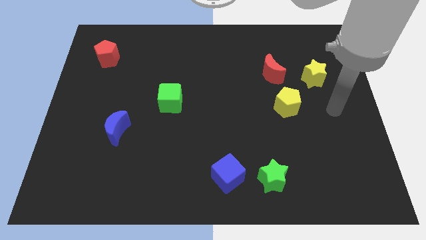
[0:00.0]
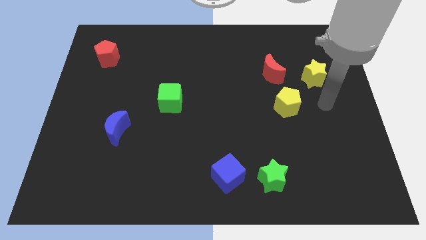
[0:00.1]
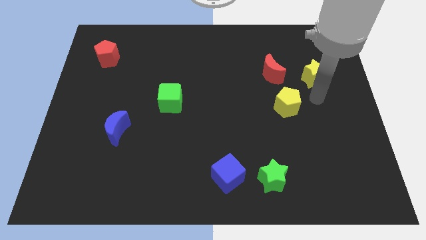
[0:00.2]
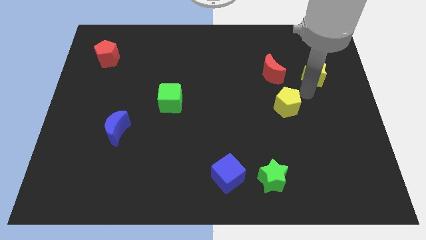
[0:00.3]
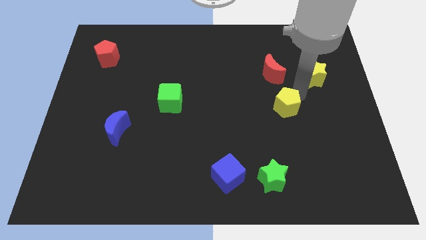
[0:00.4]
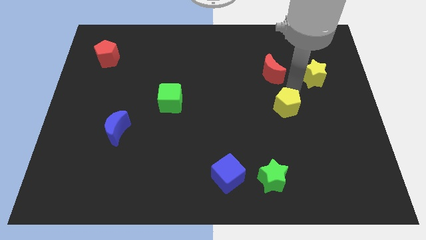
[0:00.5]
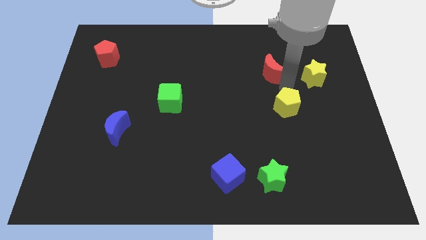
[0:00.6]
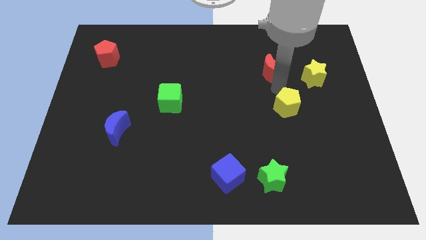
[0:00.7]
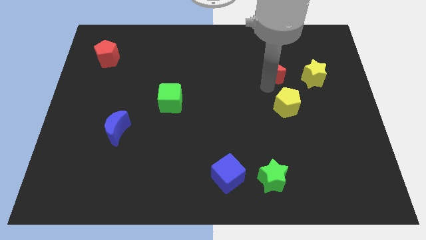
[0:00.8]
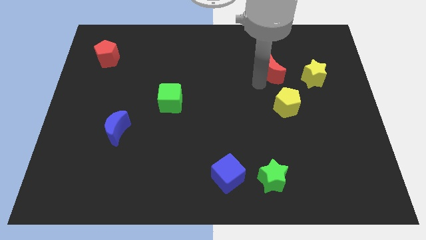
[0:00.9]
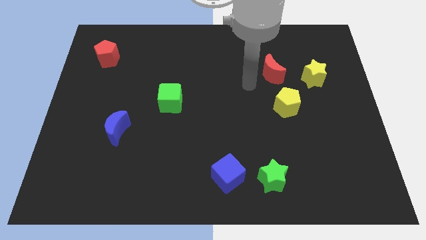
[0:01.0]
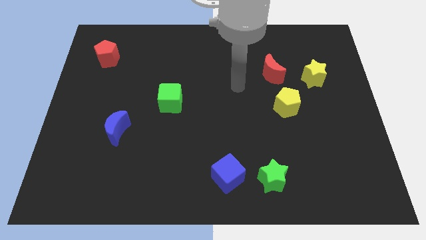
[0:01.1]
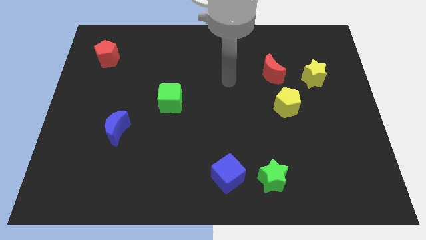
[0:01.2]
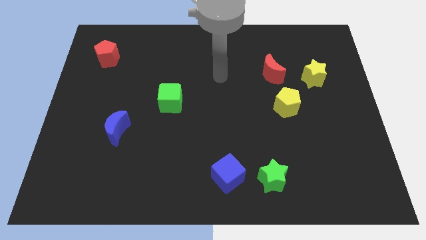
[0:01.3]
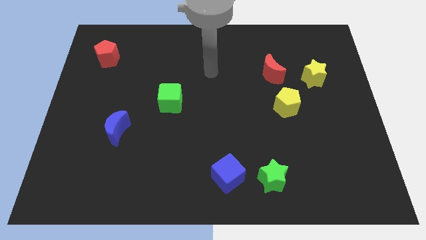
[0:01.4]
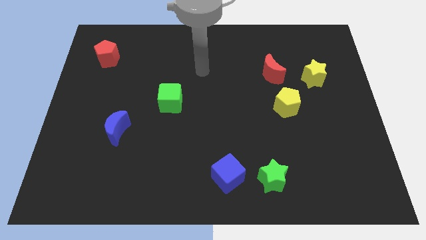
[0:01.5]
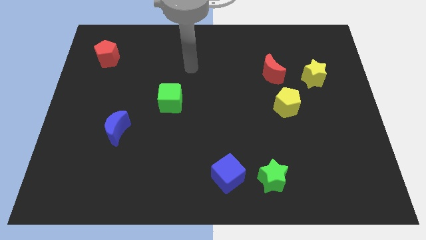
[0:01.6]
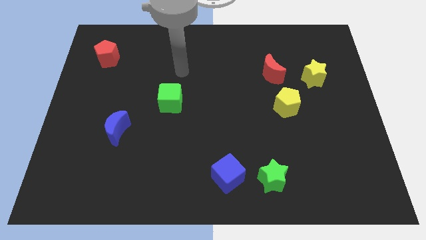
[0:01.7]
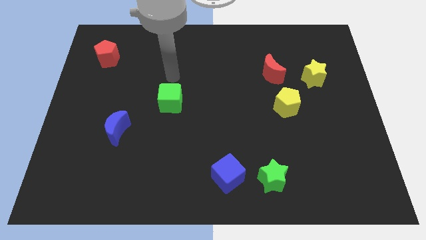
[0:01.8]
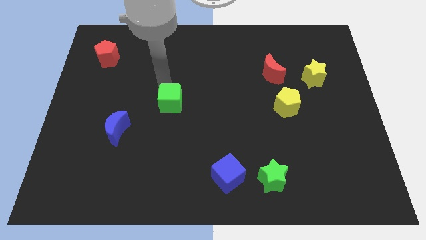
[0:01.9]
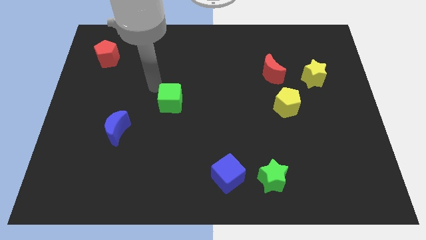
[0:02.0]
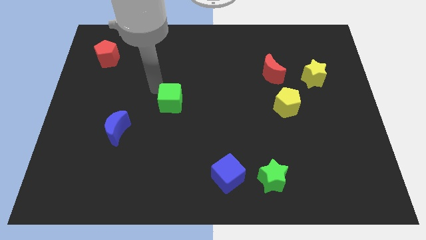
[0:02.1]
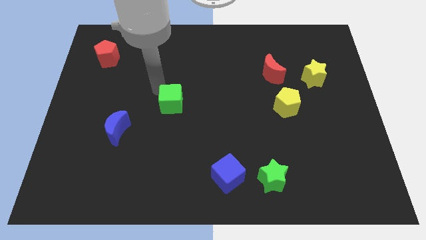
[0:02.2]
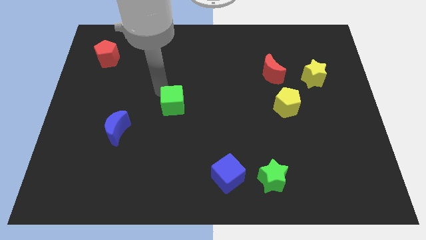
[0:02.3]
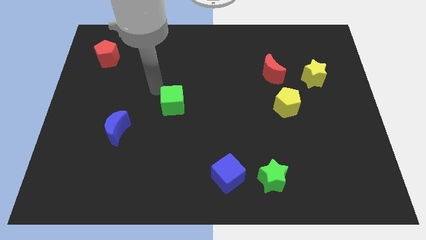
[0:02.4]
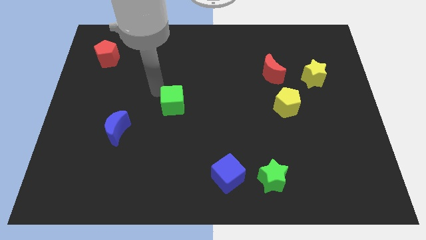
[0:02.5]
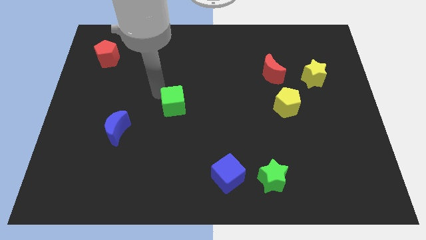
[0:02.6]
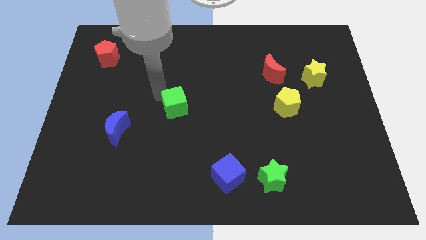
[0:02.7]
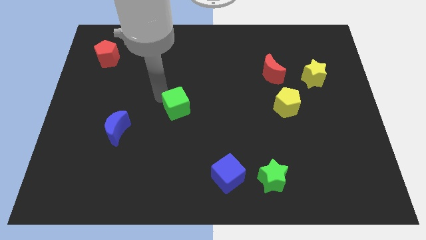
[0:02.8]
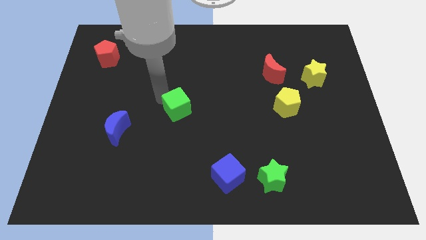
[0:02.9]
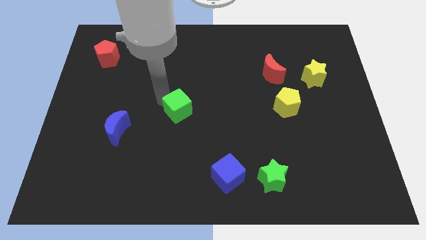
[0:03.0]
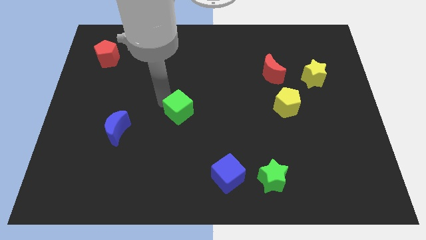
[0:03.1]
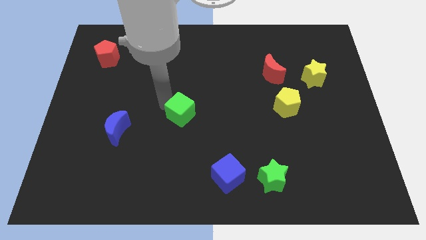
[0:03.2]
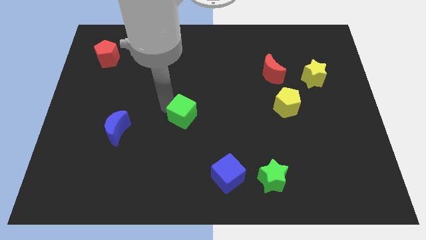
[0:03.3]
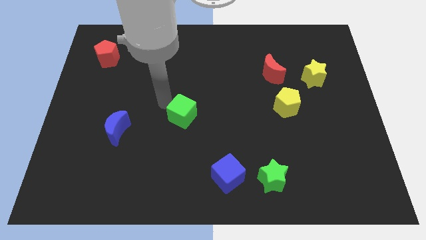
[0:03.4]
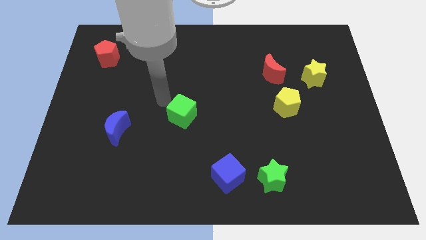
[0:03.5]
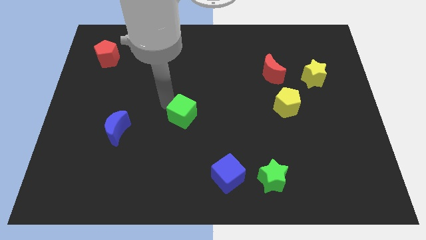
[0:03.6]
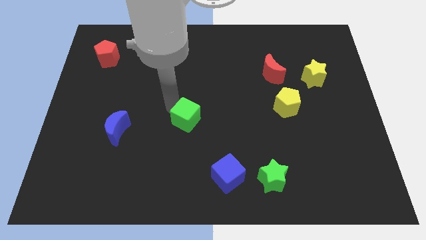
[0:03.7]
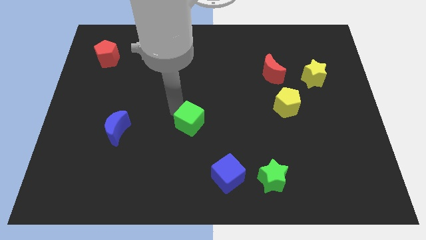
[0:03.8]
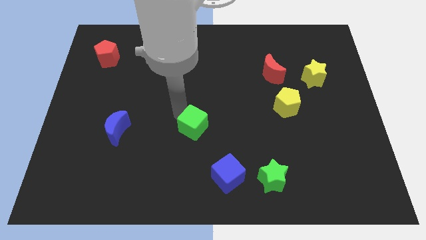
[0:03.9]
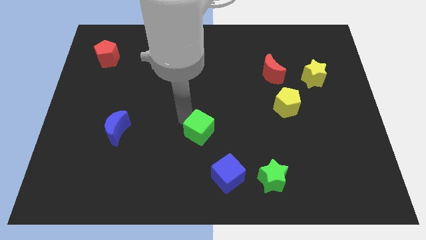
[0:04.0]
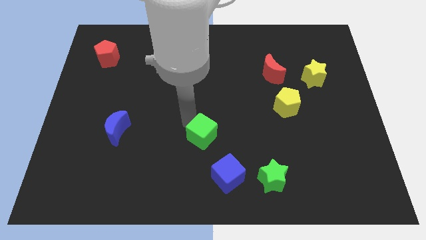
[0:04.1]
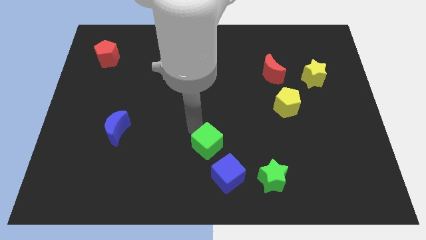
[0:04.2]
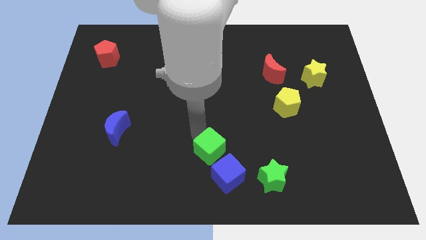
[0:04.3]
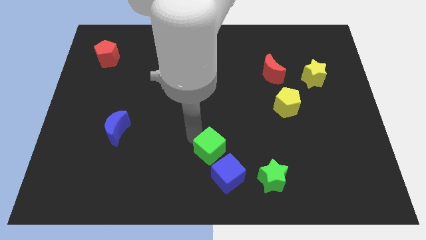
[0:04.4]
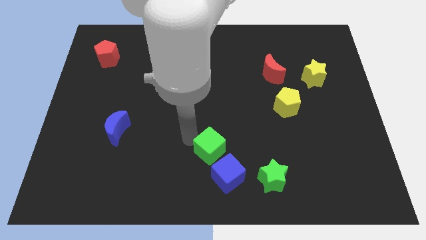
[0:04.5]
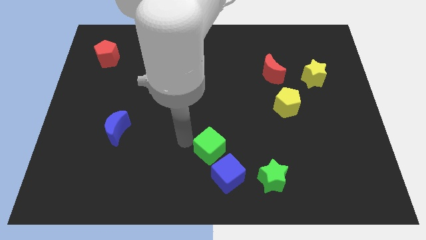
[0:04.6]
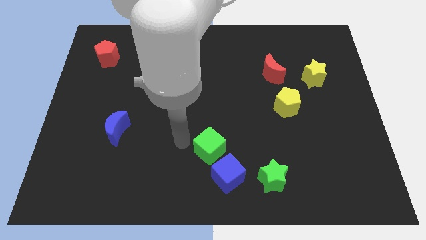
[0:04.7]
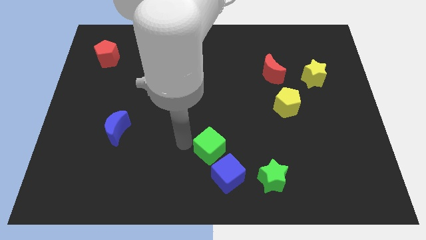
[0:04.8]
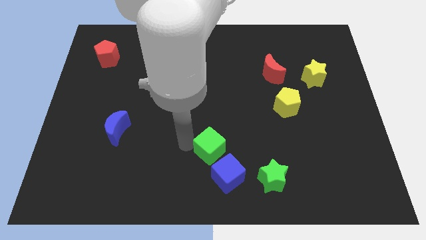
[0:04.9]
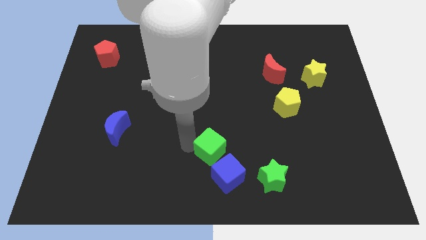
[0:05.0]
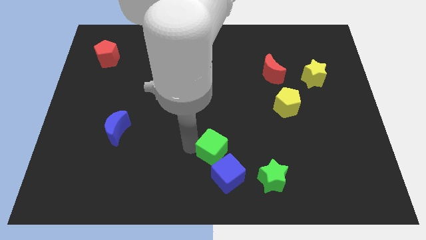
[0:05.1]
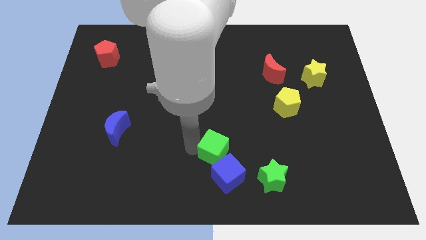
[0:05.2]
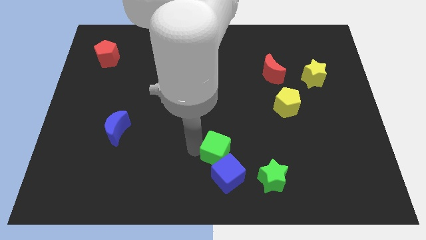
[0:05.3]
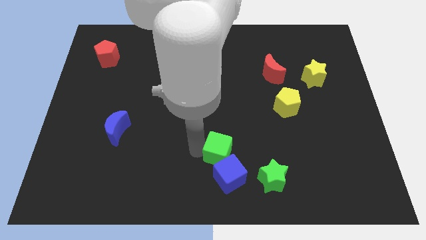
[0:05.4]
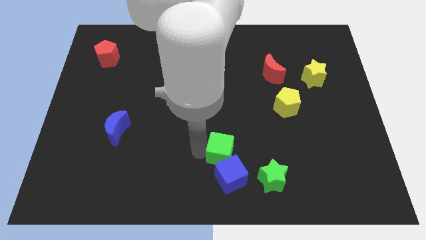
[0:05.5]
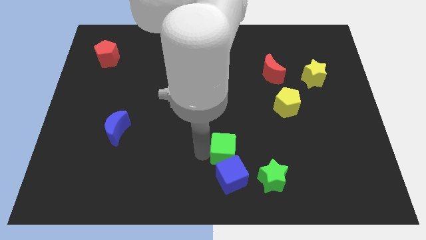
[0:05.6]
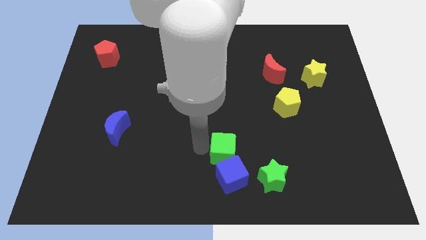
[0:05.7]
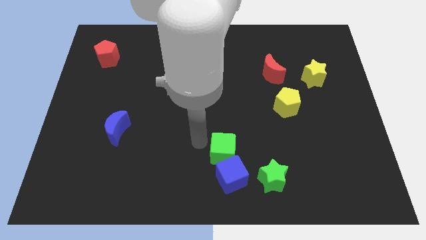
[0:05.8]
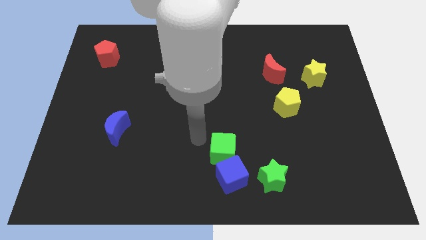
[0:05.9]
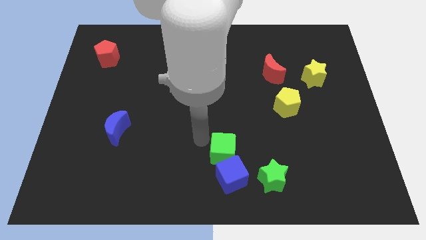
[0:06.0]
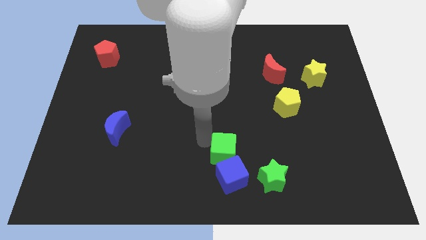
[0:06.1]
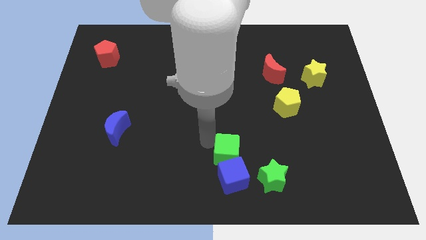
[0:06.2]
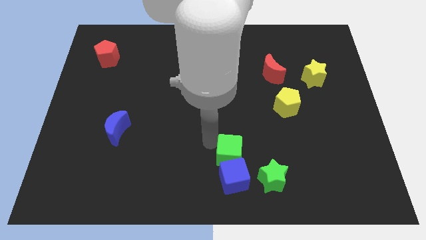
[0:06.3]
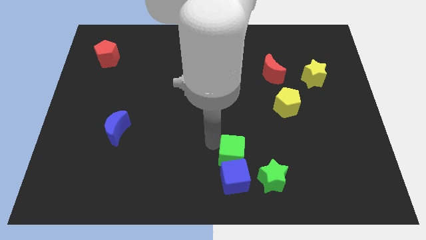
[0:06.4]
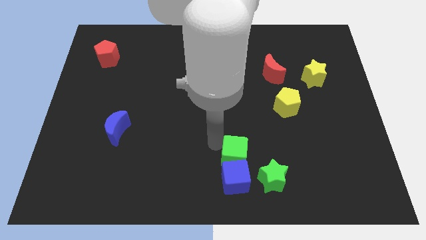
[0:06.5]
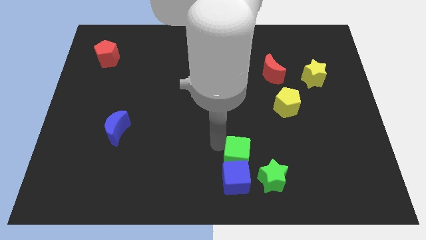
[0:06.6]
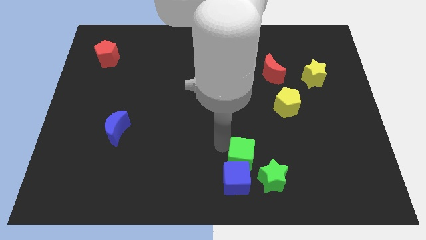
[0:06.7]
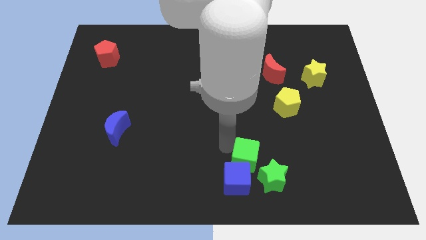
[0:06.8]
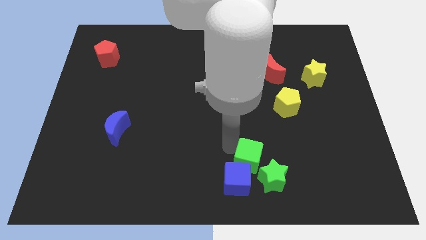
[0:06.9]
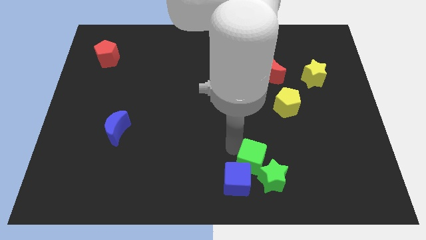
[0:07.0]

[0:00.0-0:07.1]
move the green cube close to the green star

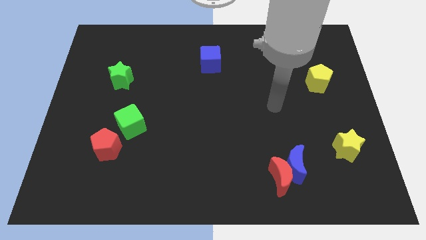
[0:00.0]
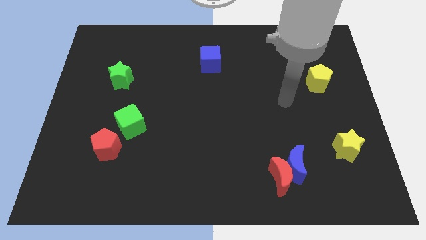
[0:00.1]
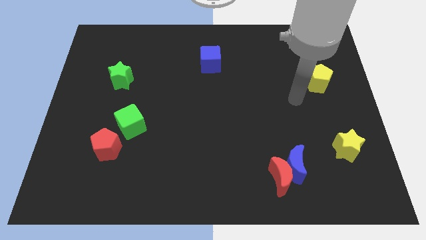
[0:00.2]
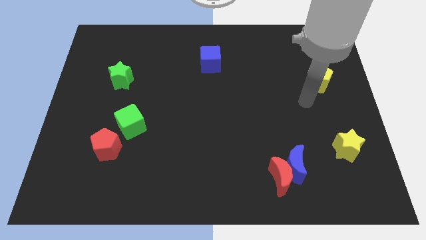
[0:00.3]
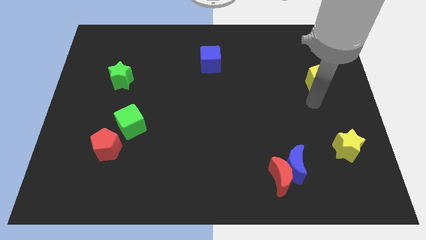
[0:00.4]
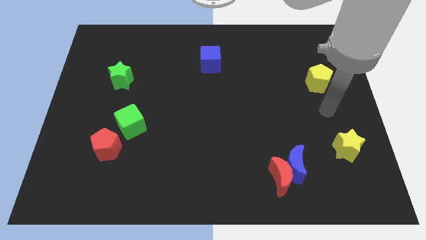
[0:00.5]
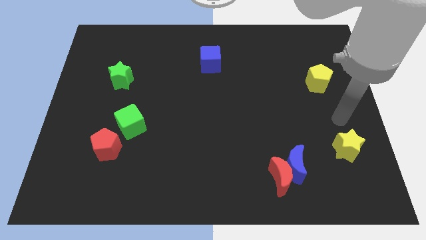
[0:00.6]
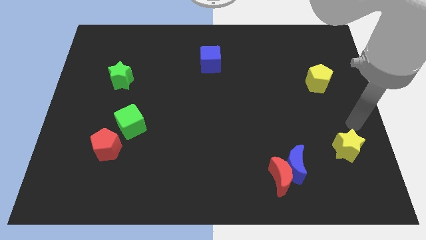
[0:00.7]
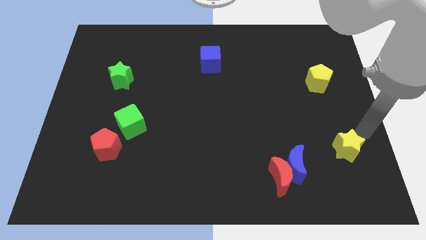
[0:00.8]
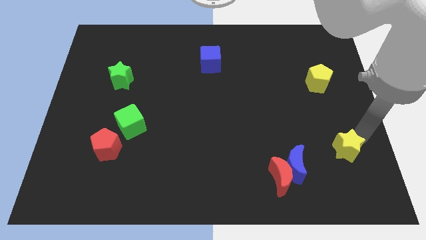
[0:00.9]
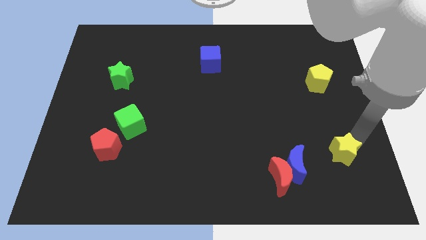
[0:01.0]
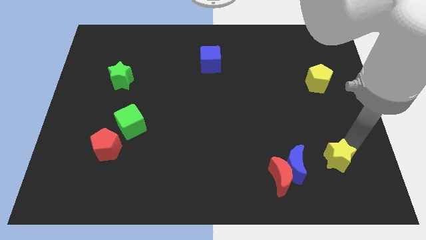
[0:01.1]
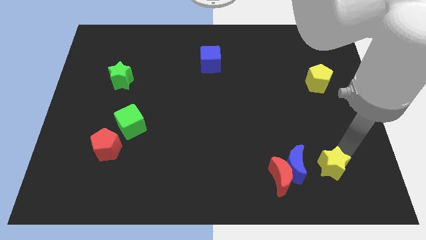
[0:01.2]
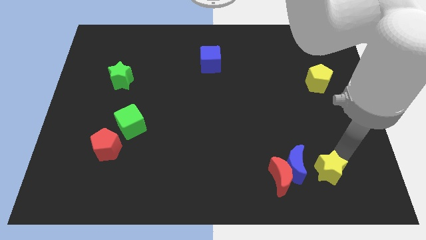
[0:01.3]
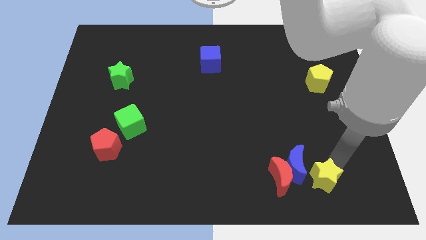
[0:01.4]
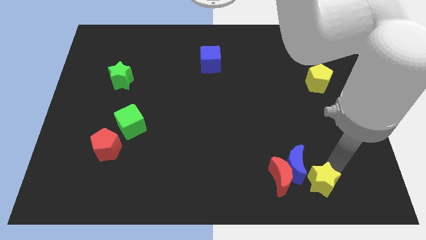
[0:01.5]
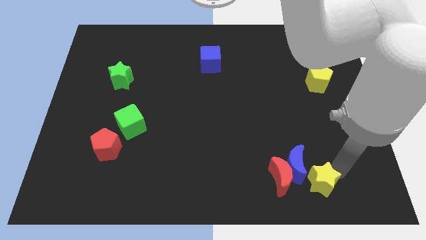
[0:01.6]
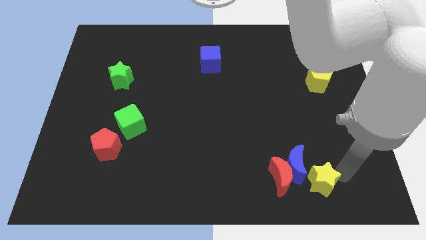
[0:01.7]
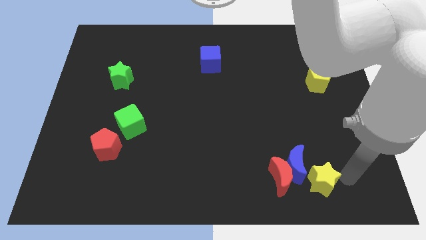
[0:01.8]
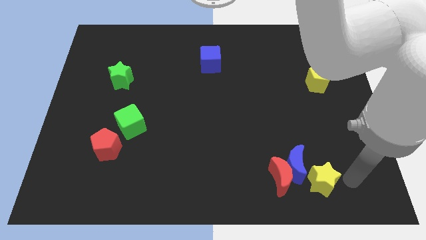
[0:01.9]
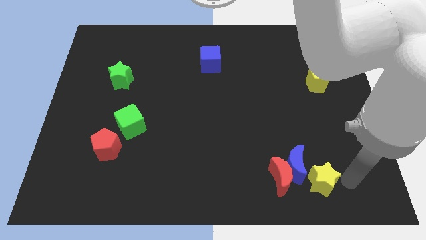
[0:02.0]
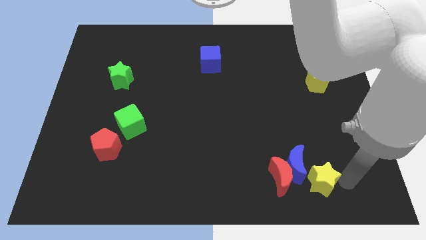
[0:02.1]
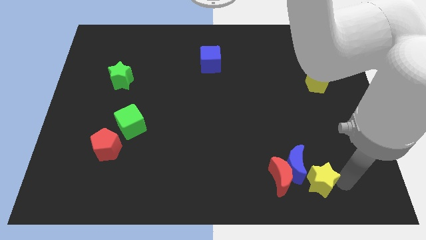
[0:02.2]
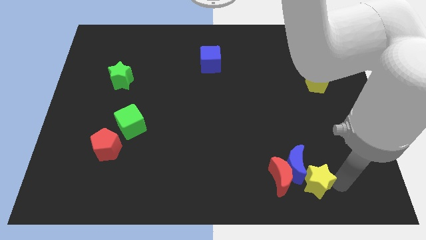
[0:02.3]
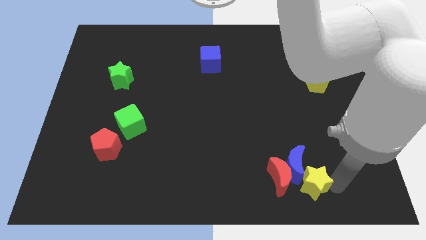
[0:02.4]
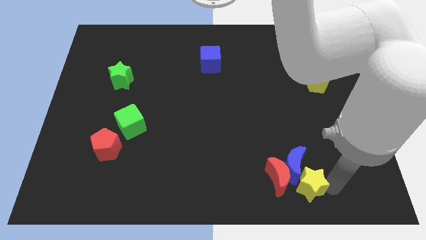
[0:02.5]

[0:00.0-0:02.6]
put the yellow star next to the red moon
